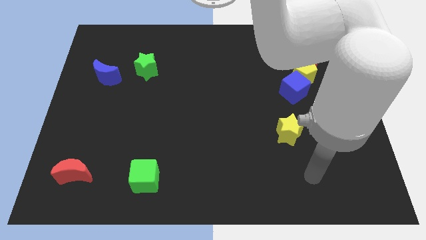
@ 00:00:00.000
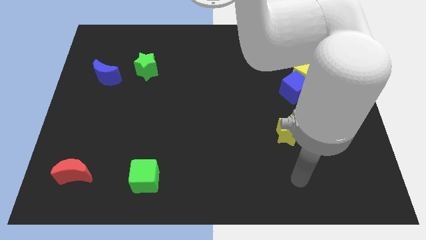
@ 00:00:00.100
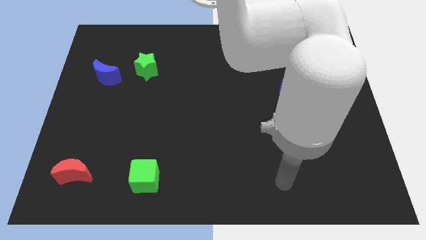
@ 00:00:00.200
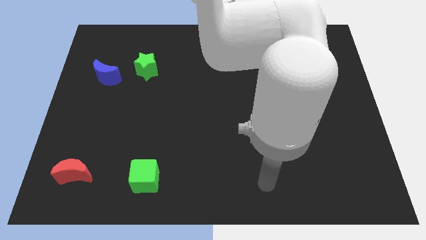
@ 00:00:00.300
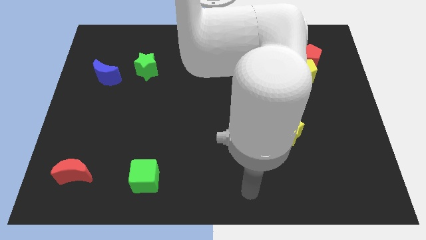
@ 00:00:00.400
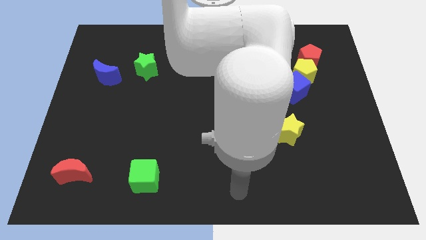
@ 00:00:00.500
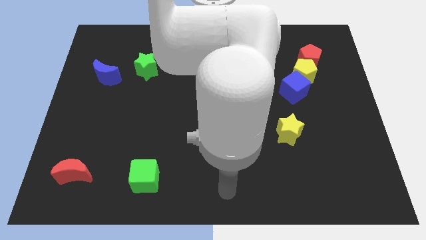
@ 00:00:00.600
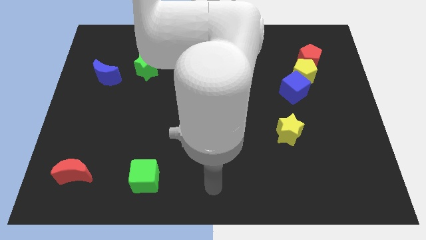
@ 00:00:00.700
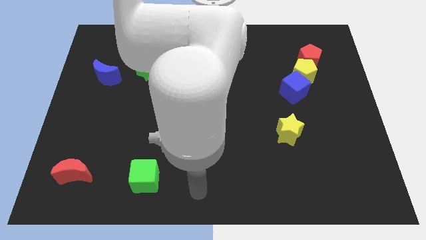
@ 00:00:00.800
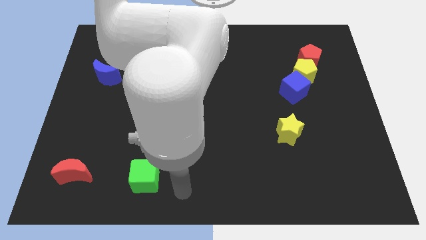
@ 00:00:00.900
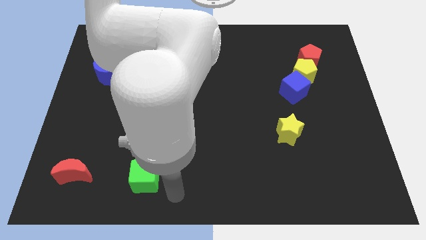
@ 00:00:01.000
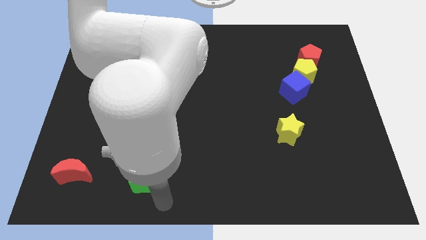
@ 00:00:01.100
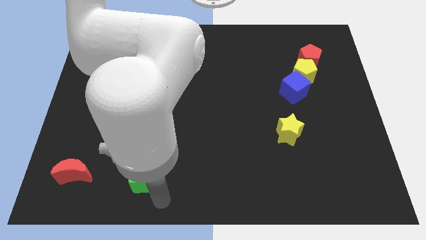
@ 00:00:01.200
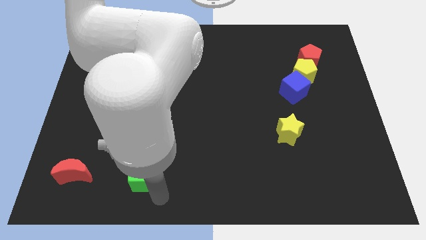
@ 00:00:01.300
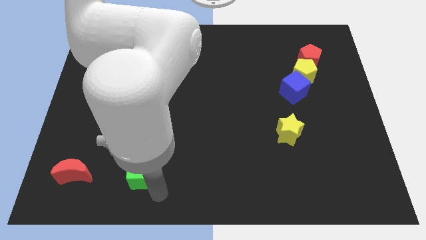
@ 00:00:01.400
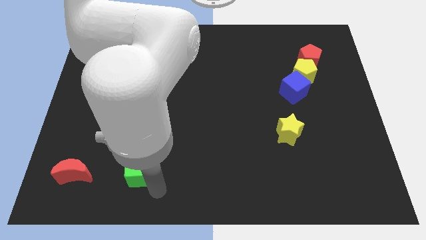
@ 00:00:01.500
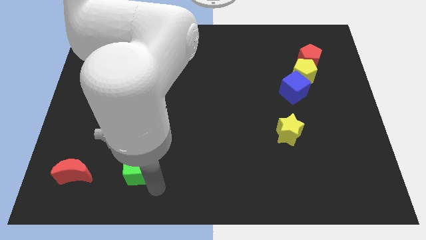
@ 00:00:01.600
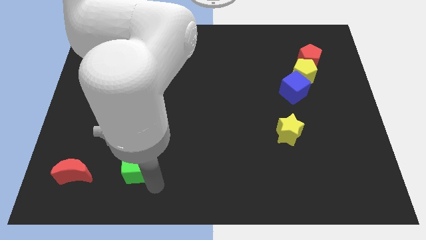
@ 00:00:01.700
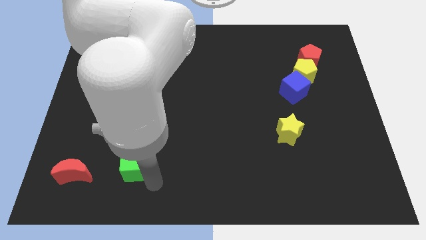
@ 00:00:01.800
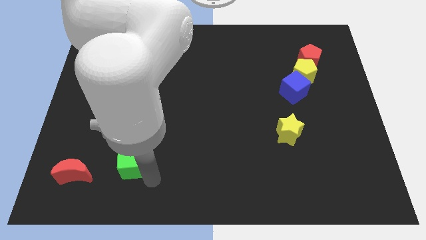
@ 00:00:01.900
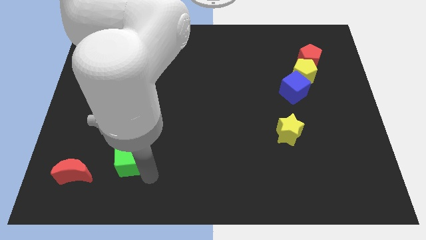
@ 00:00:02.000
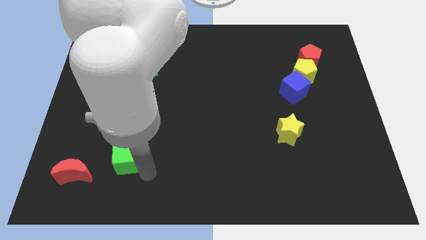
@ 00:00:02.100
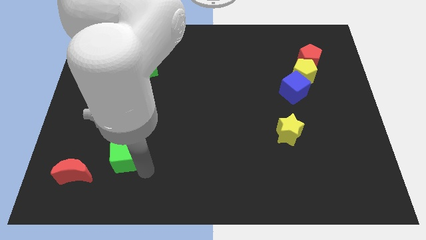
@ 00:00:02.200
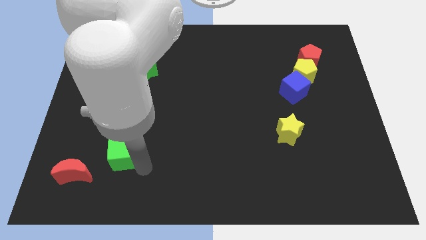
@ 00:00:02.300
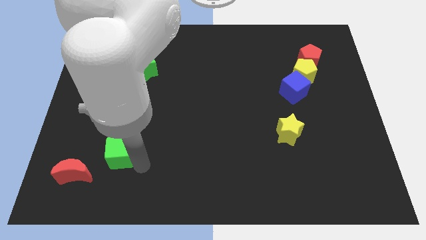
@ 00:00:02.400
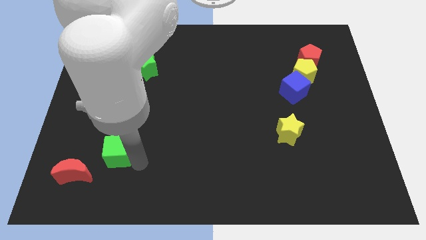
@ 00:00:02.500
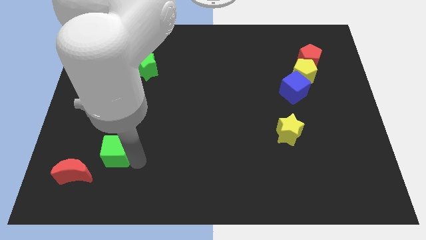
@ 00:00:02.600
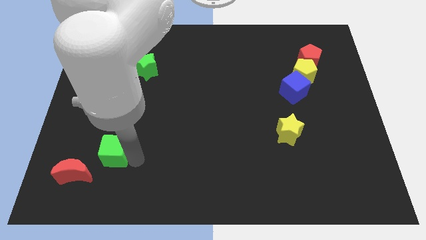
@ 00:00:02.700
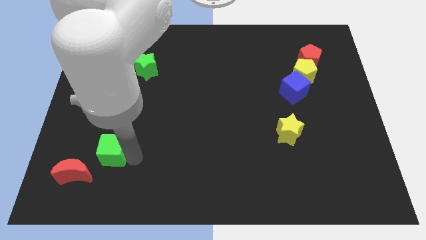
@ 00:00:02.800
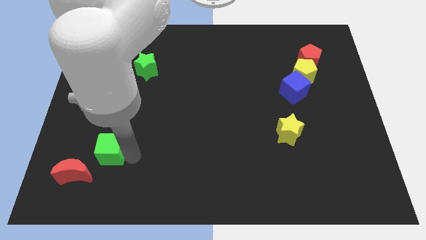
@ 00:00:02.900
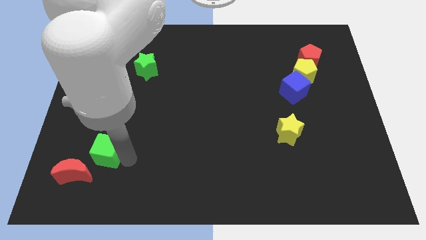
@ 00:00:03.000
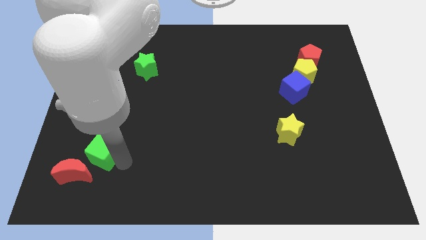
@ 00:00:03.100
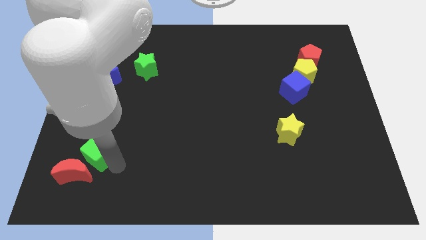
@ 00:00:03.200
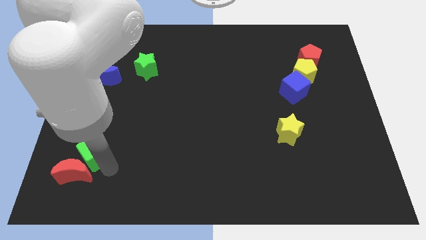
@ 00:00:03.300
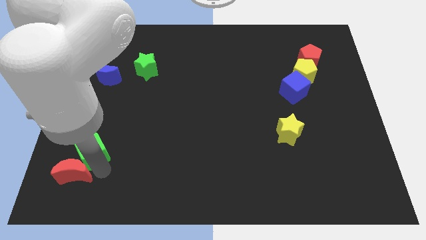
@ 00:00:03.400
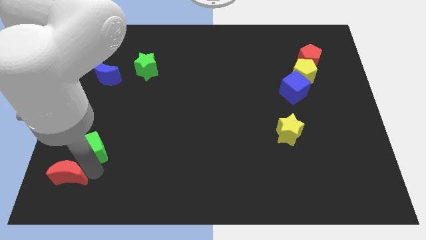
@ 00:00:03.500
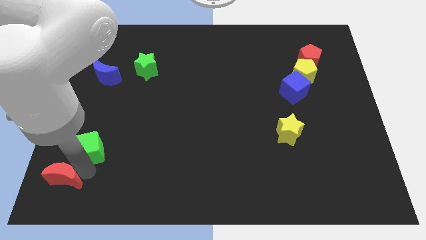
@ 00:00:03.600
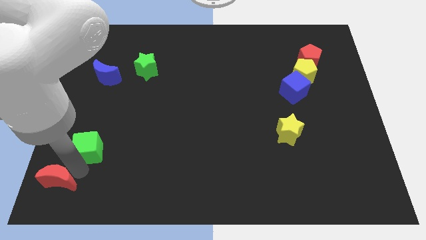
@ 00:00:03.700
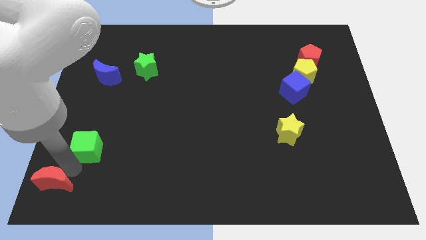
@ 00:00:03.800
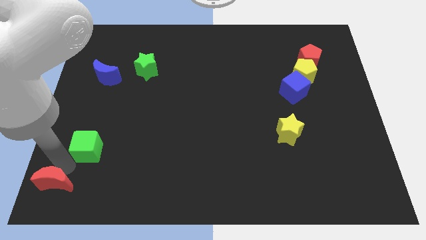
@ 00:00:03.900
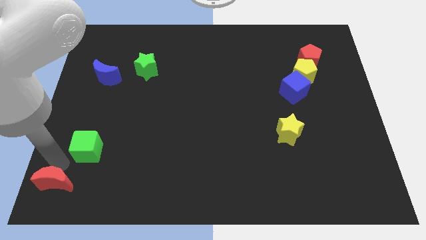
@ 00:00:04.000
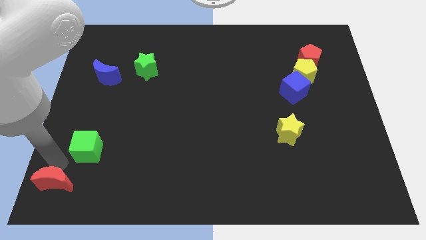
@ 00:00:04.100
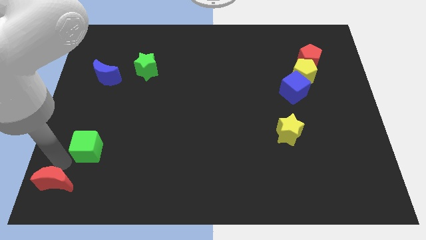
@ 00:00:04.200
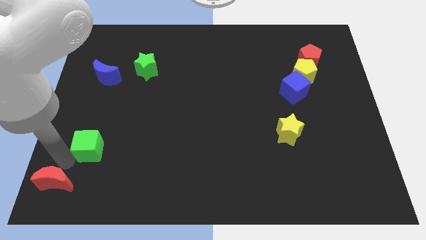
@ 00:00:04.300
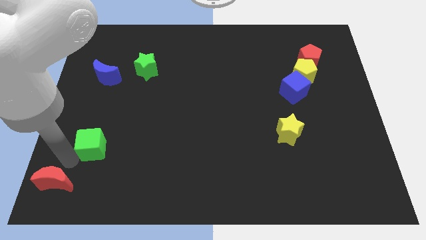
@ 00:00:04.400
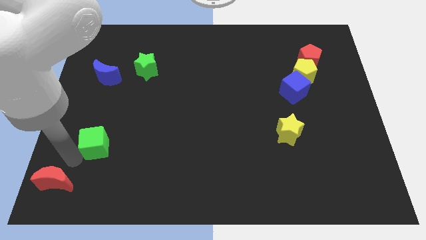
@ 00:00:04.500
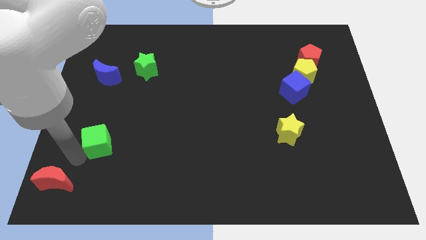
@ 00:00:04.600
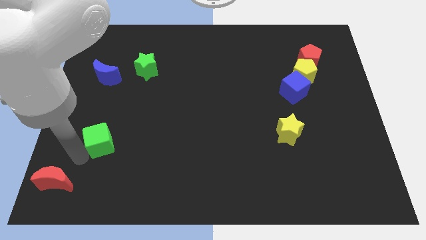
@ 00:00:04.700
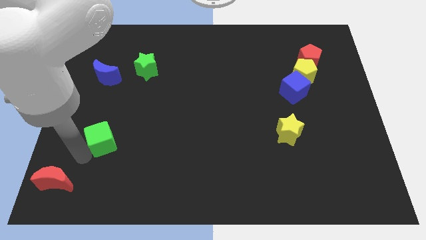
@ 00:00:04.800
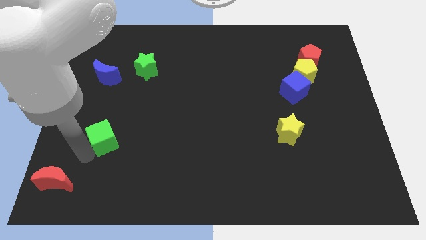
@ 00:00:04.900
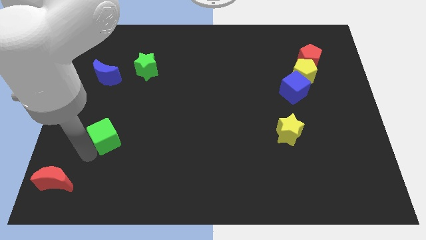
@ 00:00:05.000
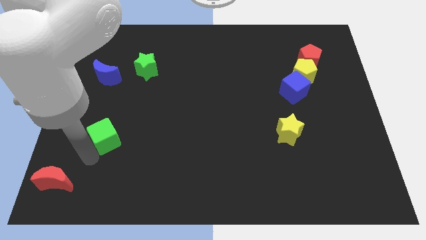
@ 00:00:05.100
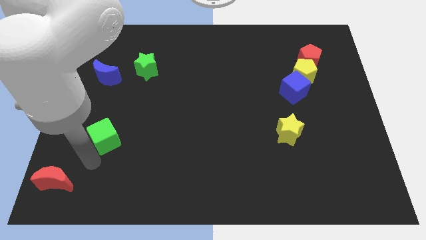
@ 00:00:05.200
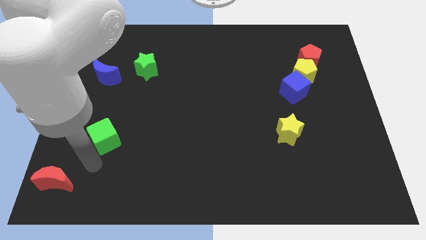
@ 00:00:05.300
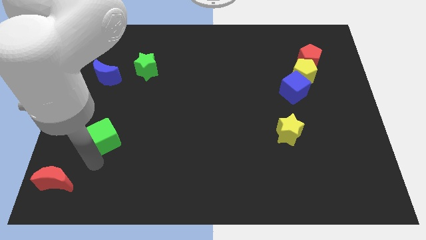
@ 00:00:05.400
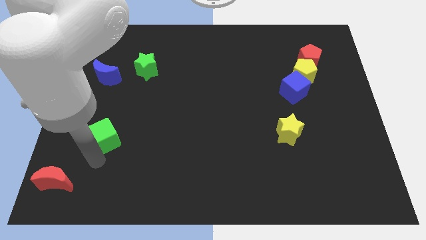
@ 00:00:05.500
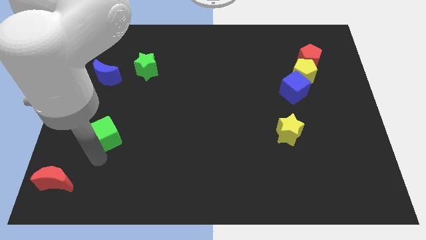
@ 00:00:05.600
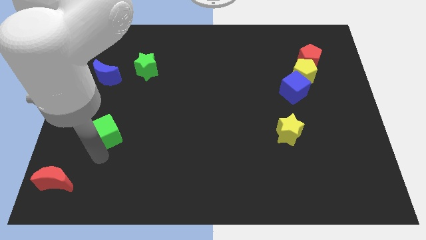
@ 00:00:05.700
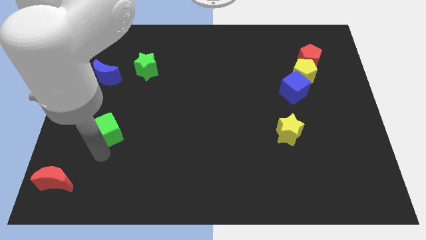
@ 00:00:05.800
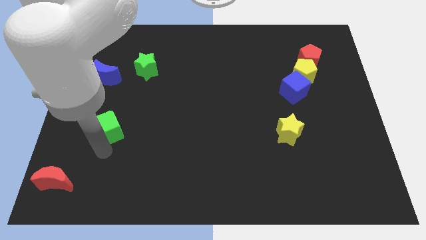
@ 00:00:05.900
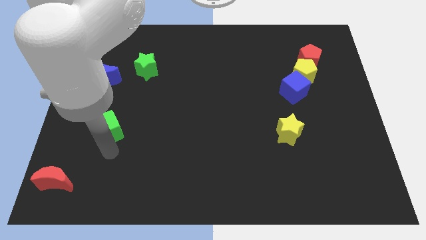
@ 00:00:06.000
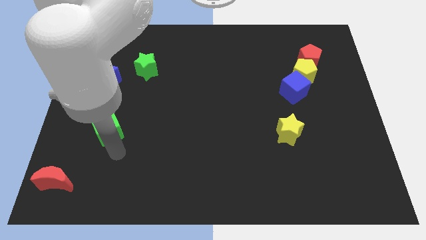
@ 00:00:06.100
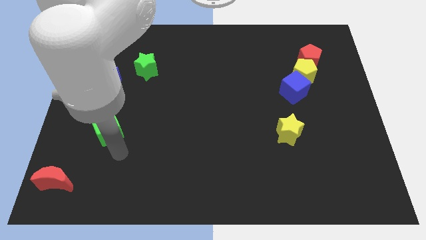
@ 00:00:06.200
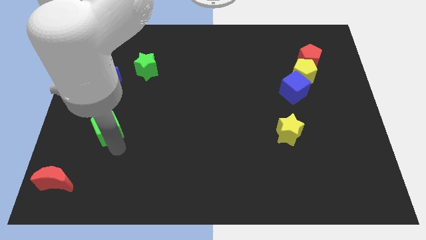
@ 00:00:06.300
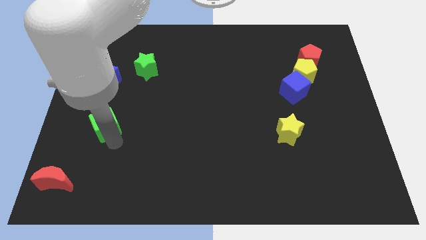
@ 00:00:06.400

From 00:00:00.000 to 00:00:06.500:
move the green cube to the bottom of the blue moon

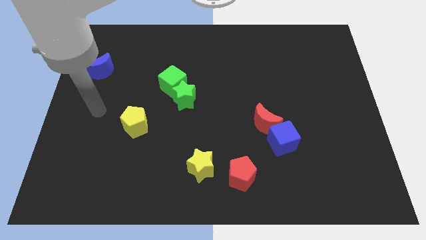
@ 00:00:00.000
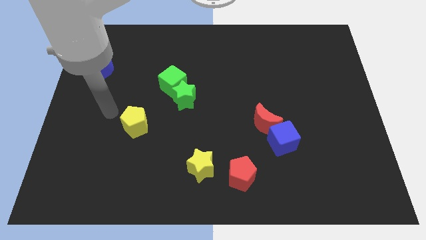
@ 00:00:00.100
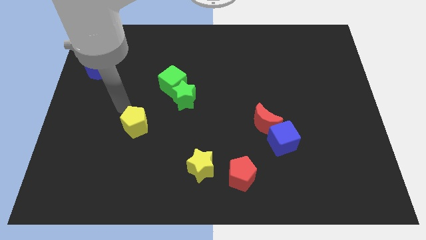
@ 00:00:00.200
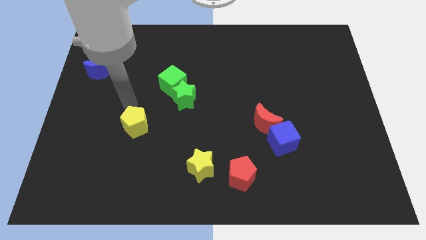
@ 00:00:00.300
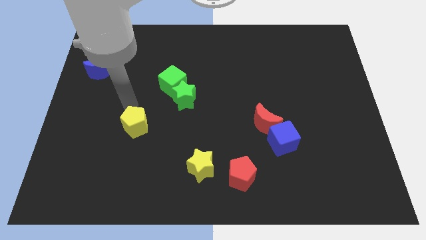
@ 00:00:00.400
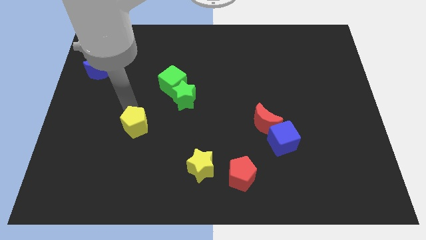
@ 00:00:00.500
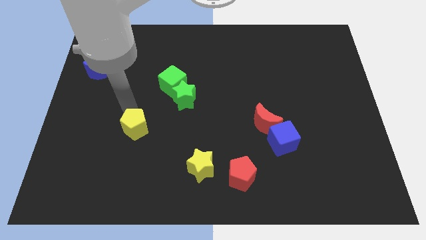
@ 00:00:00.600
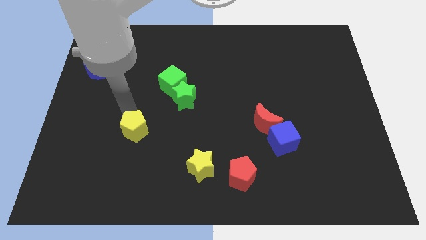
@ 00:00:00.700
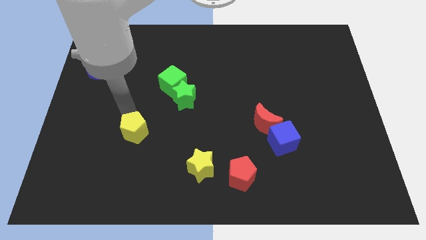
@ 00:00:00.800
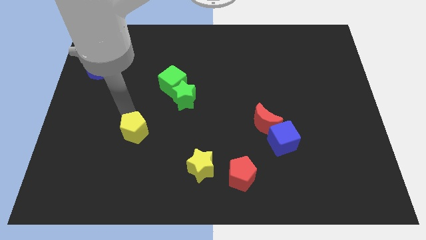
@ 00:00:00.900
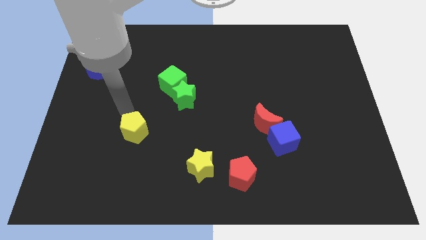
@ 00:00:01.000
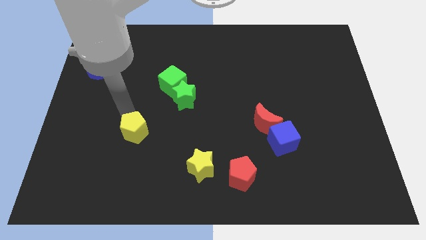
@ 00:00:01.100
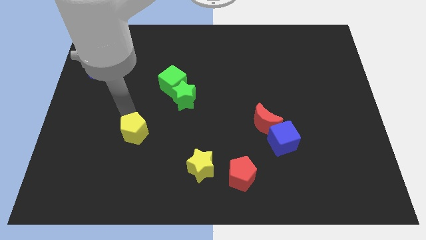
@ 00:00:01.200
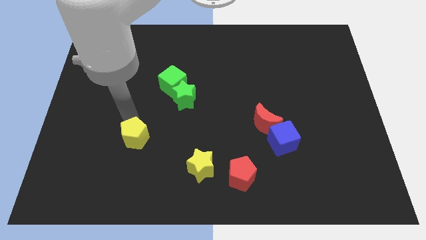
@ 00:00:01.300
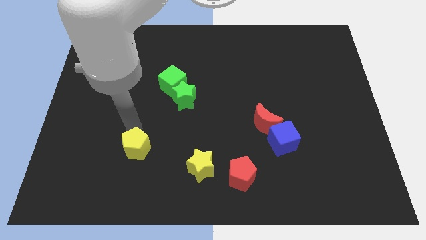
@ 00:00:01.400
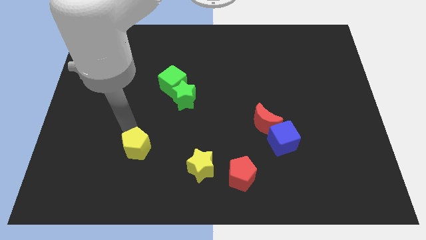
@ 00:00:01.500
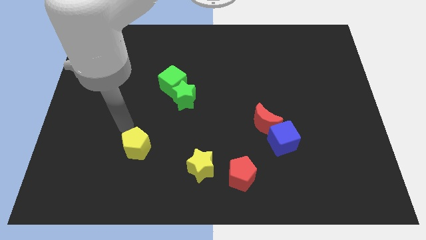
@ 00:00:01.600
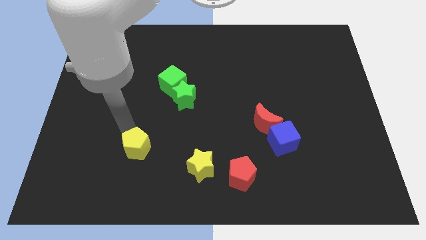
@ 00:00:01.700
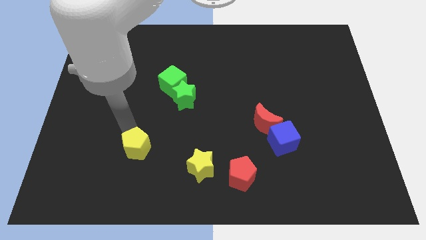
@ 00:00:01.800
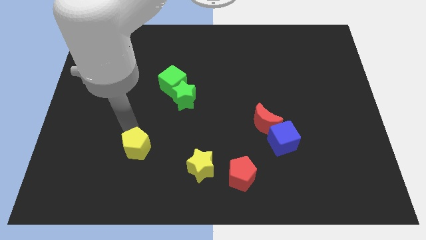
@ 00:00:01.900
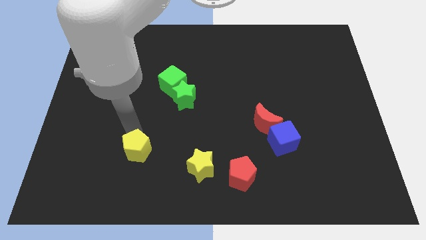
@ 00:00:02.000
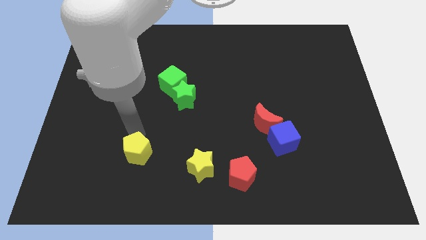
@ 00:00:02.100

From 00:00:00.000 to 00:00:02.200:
put the yellow pentagon left of the yellow star

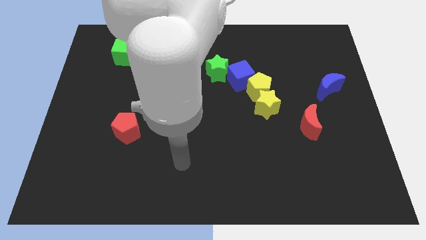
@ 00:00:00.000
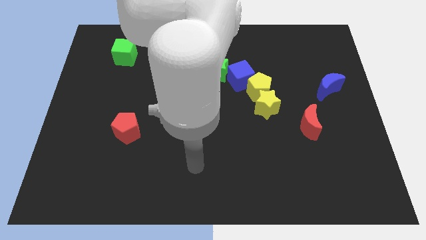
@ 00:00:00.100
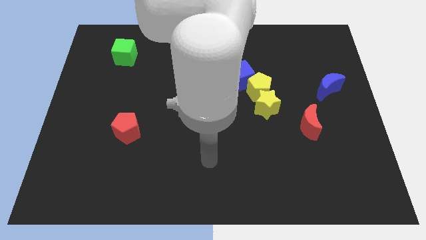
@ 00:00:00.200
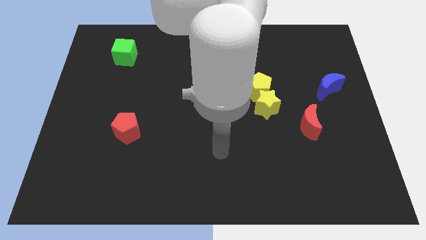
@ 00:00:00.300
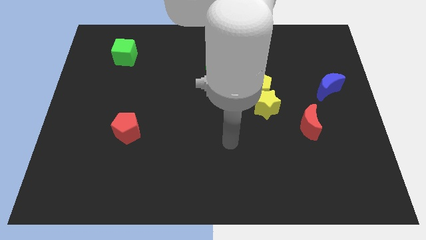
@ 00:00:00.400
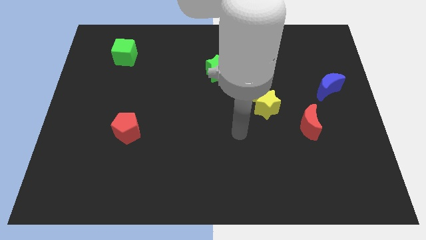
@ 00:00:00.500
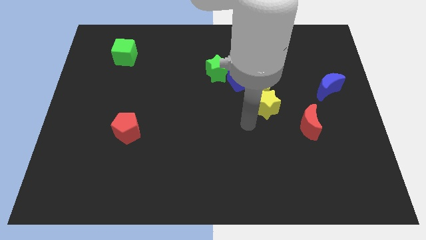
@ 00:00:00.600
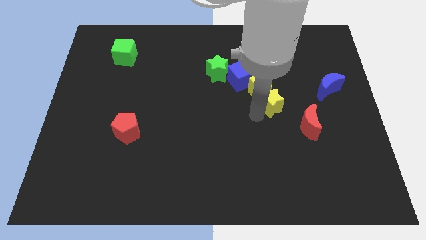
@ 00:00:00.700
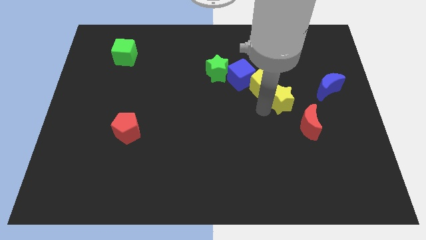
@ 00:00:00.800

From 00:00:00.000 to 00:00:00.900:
slide the yellow pentagon just right of the green star
